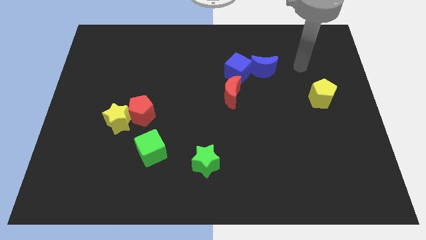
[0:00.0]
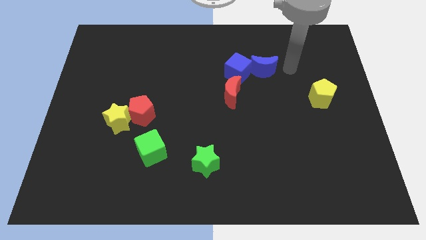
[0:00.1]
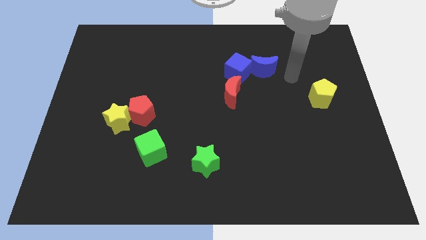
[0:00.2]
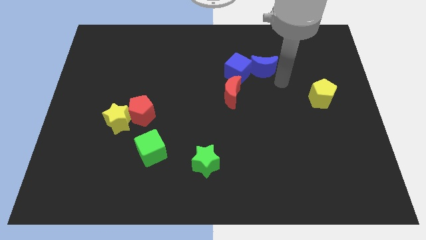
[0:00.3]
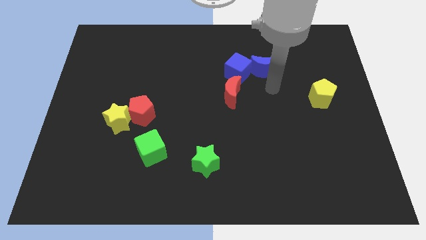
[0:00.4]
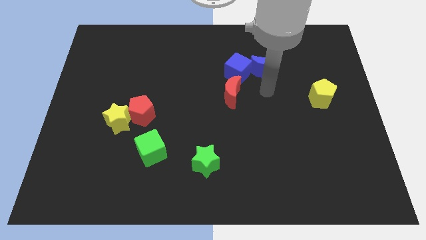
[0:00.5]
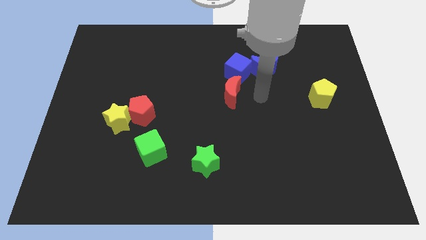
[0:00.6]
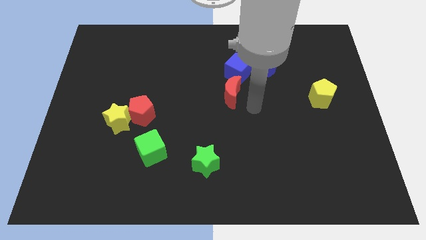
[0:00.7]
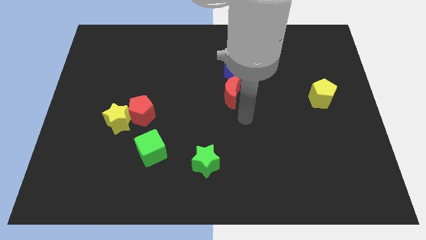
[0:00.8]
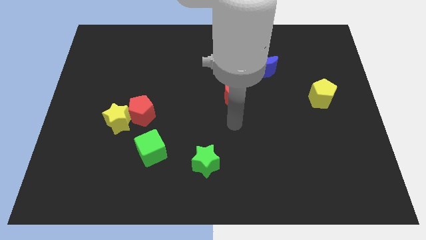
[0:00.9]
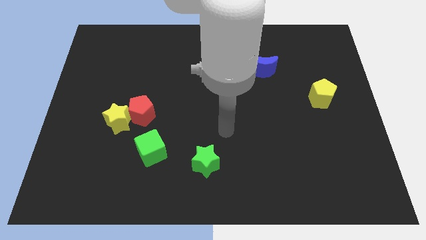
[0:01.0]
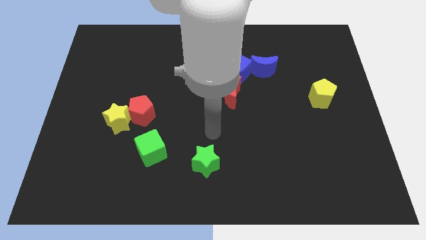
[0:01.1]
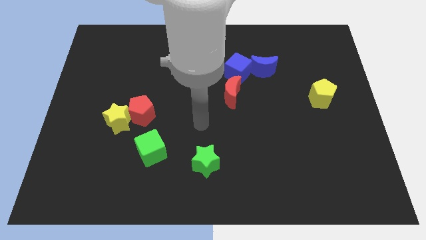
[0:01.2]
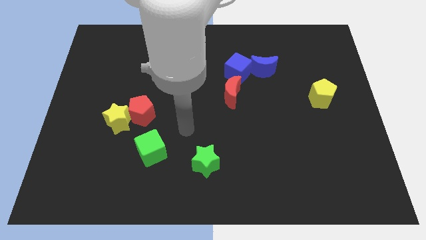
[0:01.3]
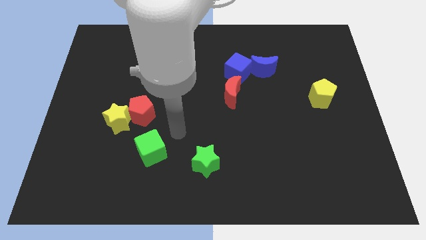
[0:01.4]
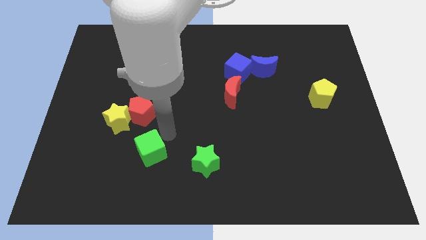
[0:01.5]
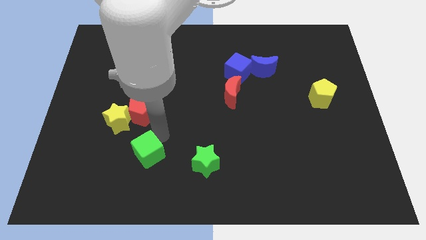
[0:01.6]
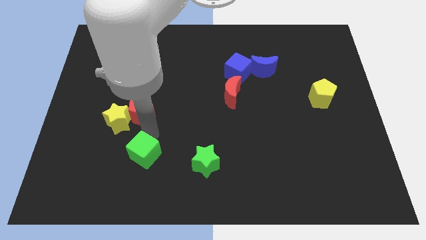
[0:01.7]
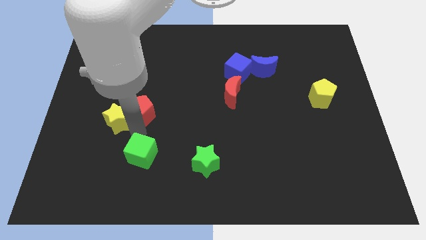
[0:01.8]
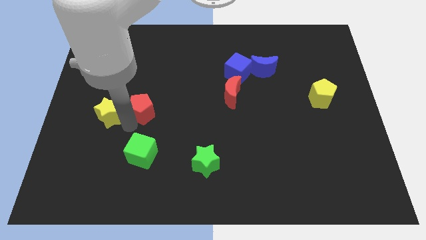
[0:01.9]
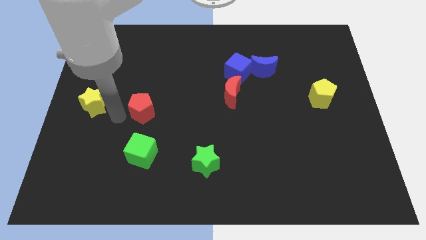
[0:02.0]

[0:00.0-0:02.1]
pull the red pentagon apart from the yellow star

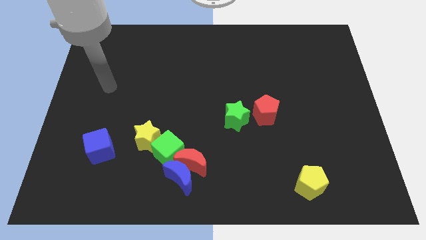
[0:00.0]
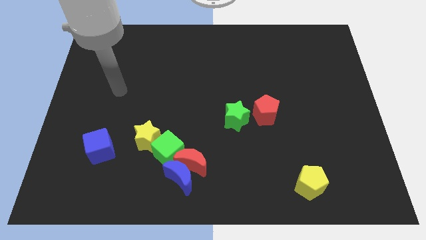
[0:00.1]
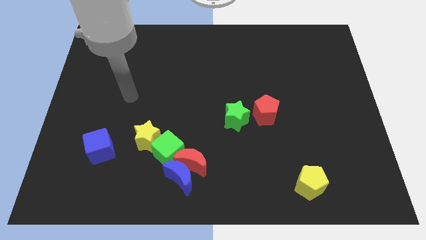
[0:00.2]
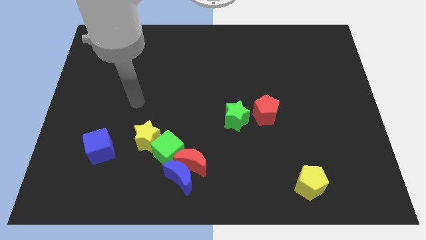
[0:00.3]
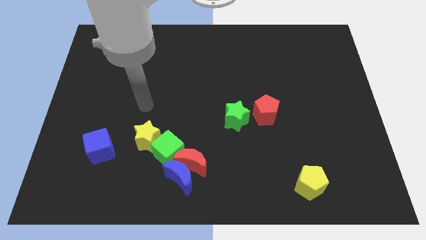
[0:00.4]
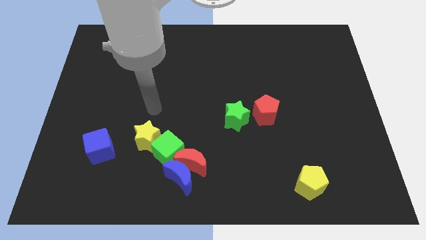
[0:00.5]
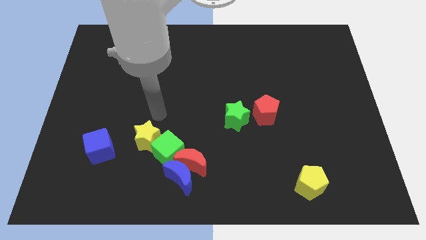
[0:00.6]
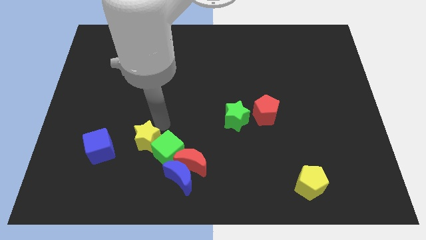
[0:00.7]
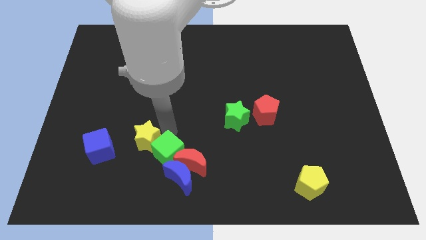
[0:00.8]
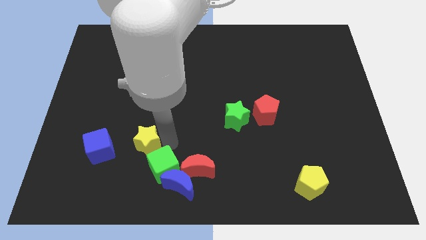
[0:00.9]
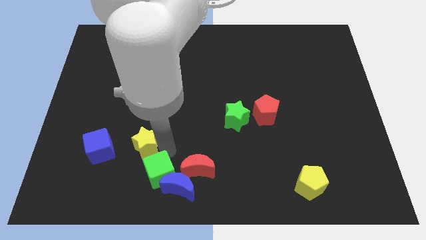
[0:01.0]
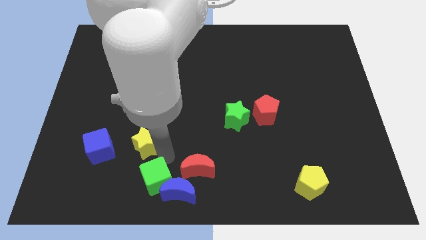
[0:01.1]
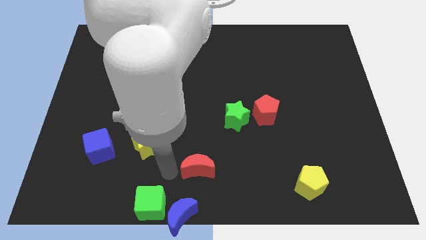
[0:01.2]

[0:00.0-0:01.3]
move the red moon away from the blue moon and green cube

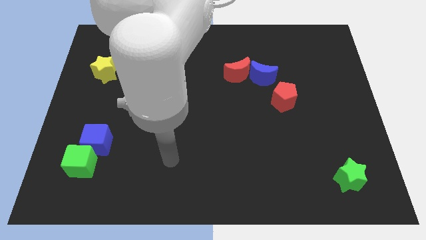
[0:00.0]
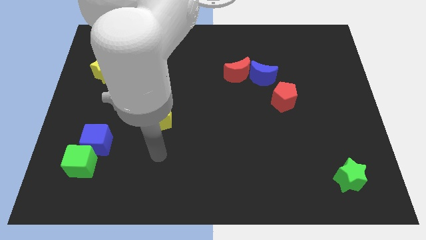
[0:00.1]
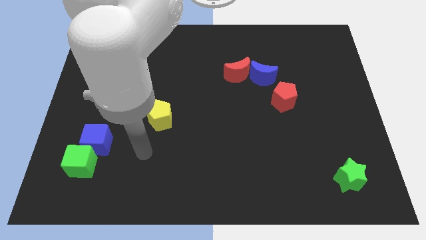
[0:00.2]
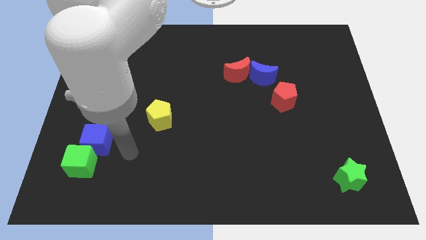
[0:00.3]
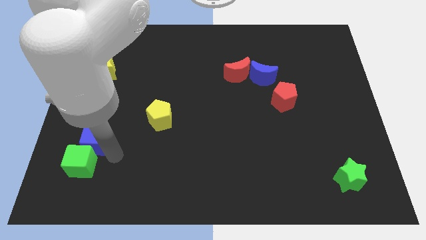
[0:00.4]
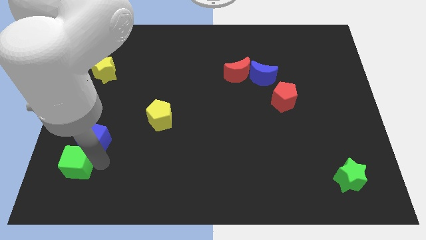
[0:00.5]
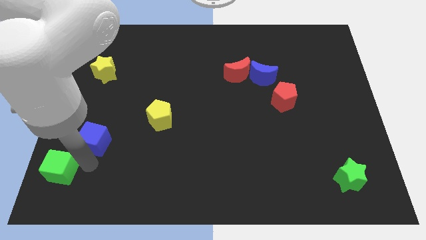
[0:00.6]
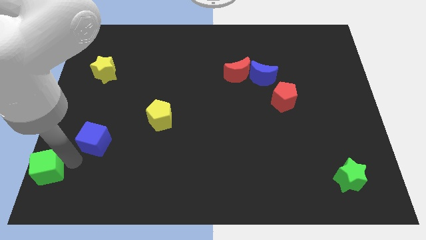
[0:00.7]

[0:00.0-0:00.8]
pull the blue cube apart from the green cube

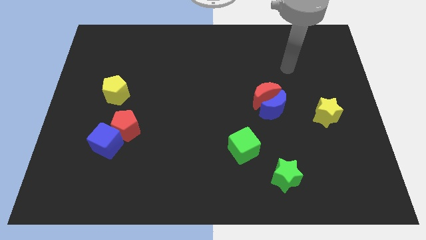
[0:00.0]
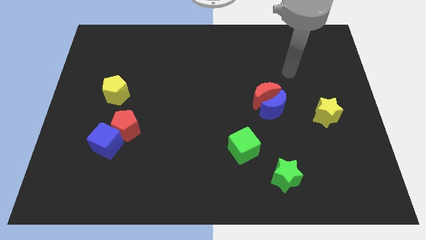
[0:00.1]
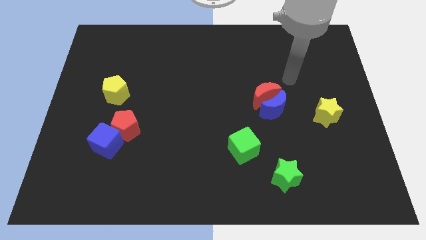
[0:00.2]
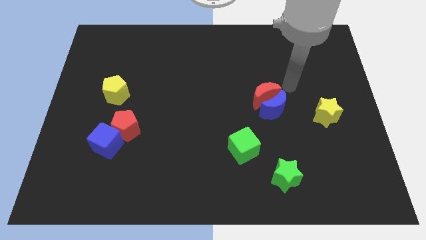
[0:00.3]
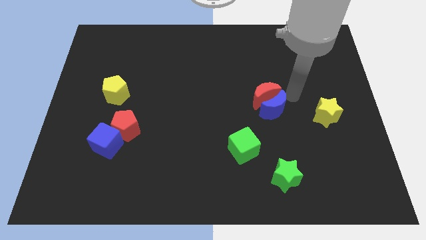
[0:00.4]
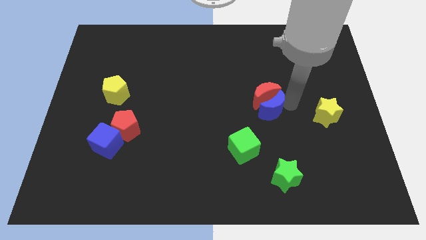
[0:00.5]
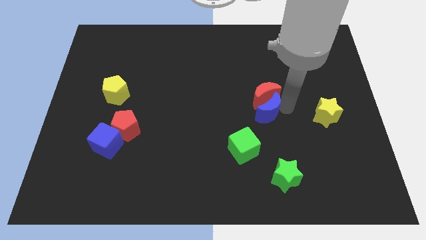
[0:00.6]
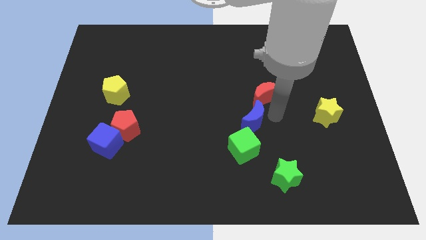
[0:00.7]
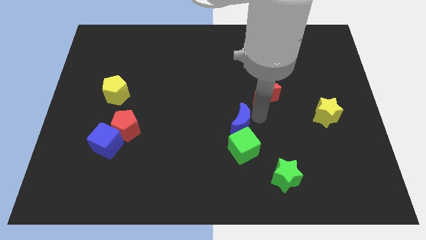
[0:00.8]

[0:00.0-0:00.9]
separate the red moon from the blue moon

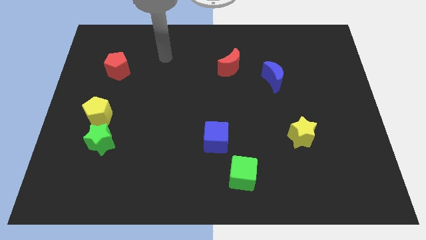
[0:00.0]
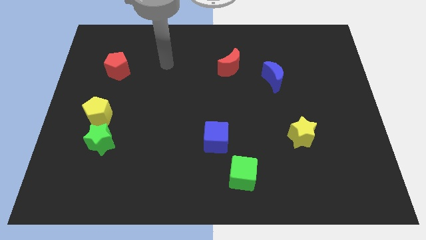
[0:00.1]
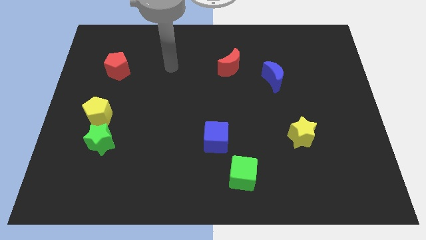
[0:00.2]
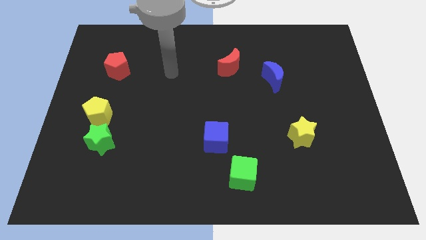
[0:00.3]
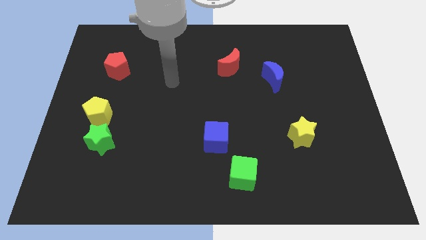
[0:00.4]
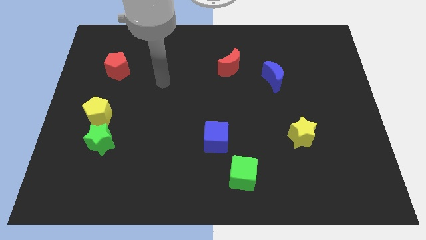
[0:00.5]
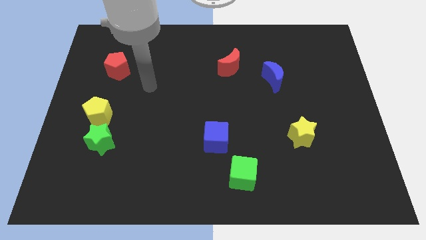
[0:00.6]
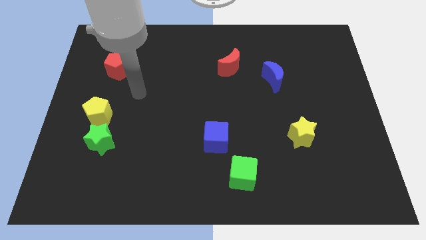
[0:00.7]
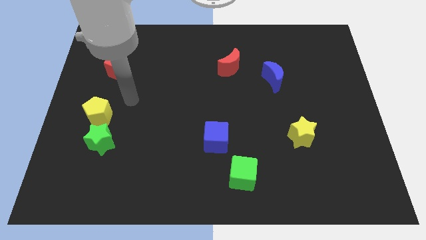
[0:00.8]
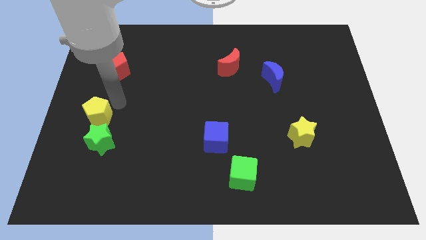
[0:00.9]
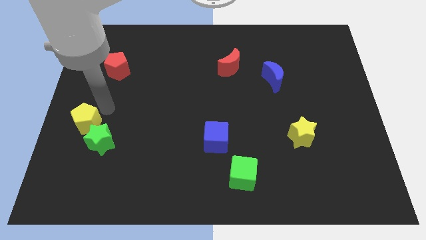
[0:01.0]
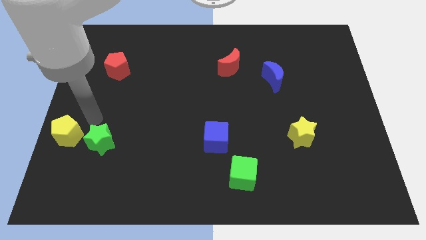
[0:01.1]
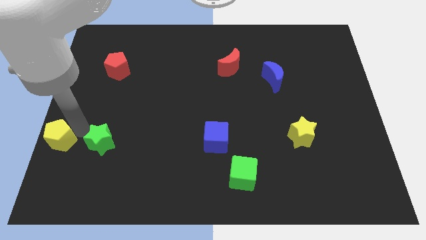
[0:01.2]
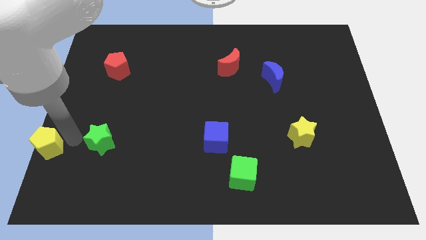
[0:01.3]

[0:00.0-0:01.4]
separate the green star from the yellow pentagon

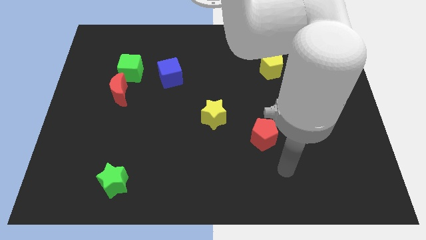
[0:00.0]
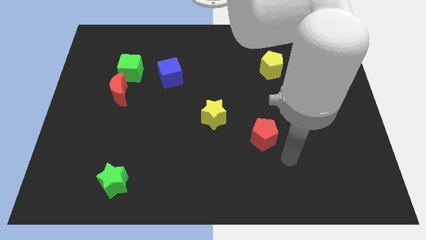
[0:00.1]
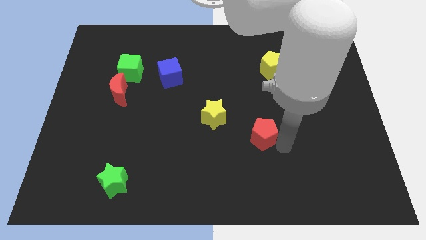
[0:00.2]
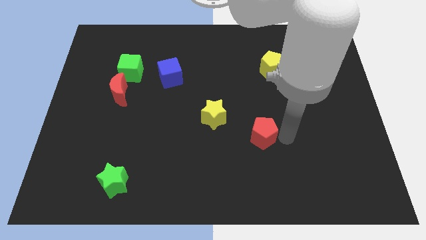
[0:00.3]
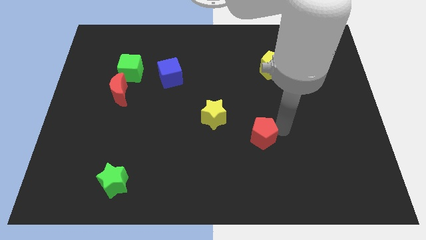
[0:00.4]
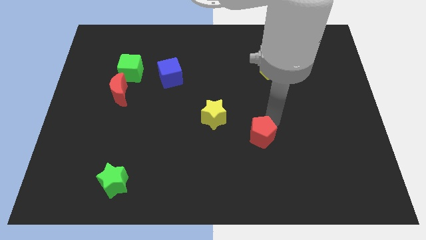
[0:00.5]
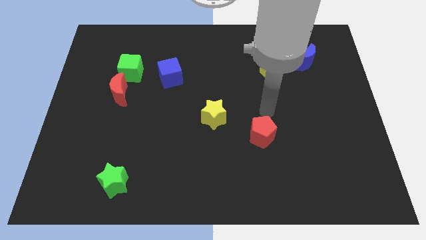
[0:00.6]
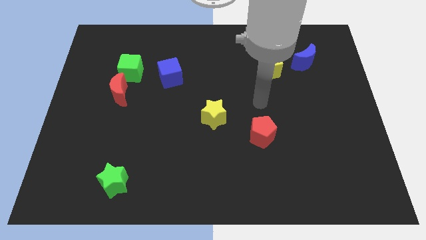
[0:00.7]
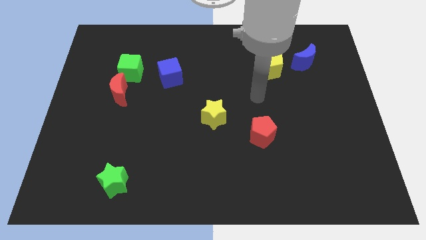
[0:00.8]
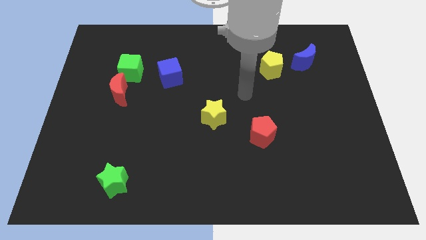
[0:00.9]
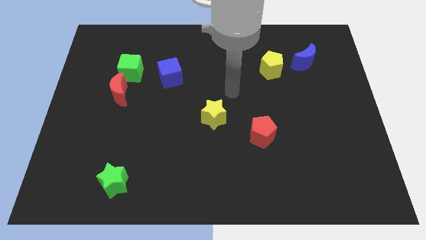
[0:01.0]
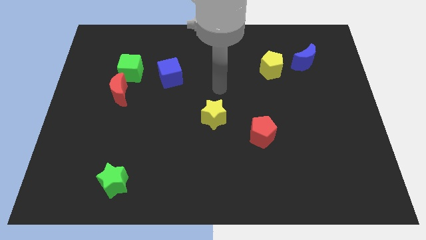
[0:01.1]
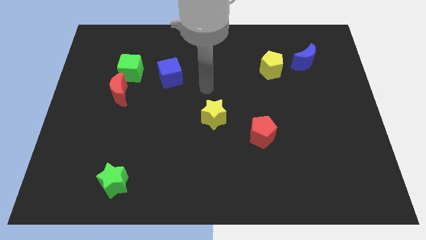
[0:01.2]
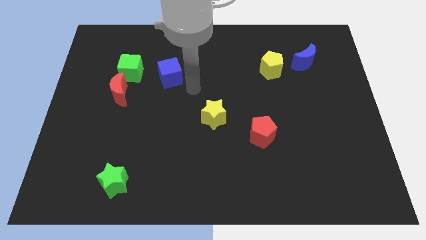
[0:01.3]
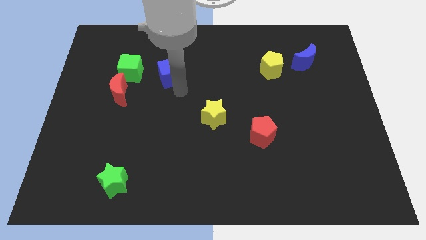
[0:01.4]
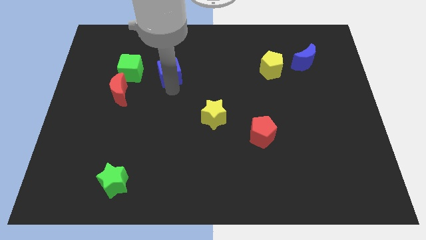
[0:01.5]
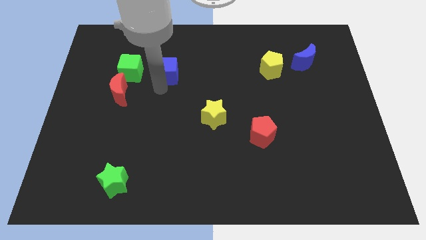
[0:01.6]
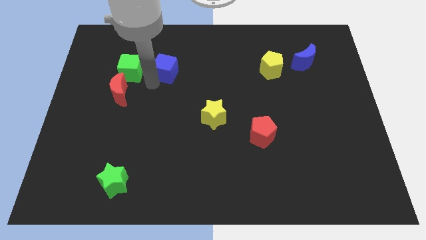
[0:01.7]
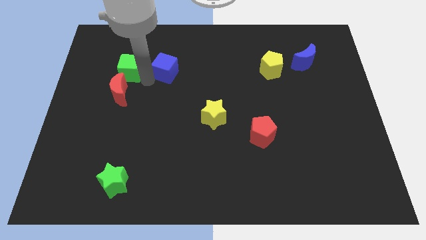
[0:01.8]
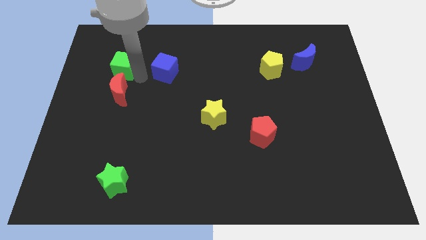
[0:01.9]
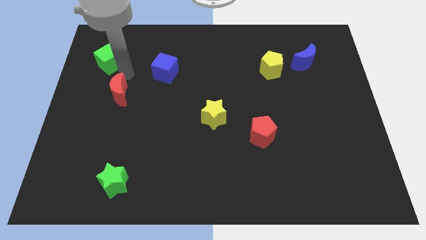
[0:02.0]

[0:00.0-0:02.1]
move the red moon away from the green cube

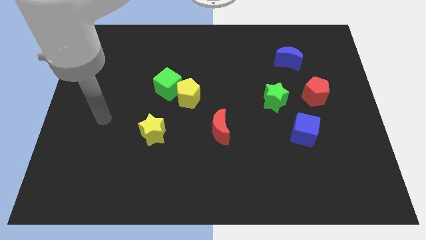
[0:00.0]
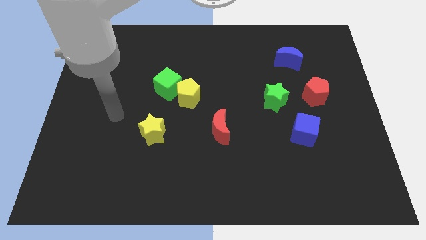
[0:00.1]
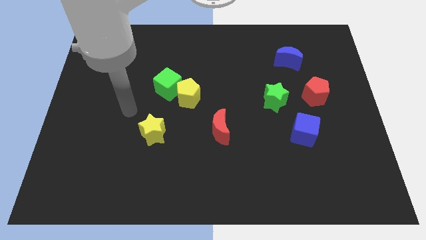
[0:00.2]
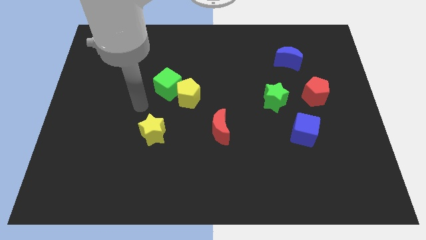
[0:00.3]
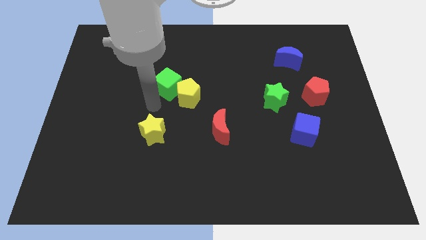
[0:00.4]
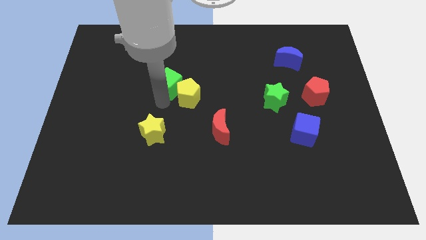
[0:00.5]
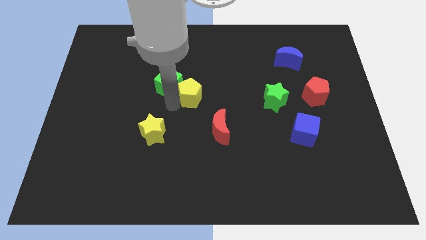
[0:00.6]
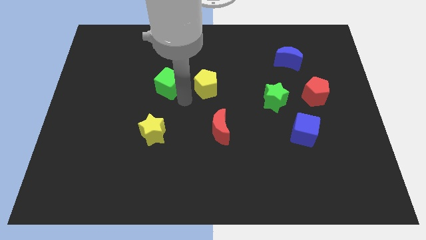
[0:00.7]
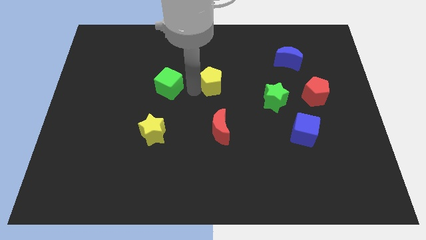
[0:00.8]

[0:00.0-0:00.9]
move the green cube away from the yellow pentagon
